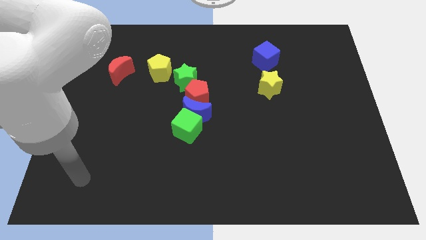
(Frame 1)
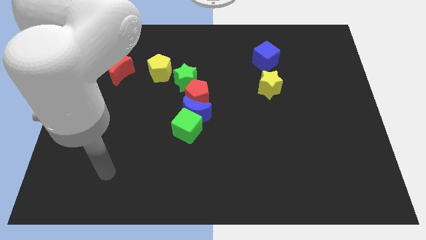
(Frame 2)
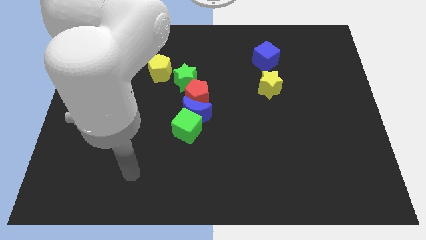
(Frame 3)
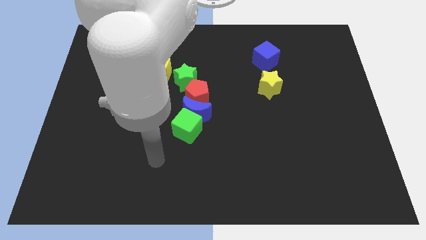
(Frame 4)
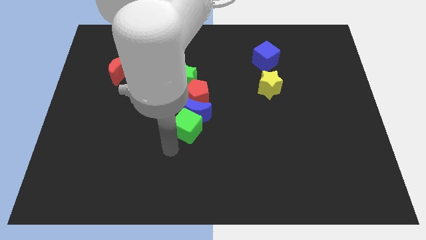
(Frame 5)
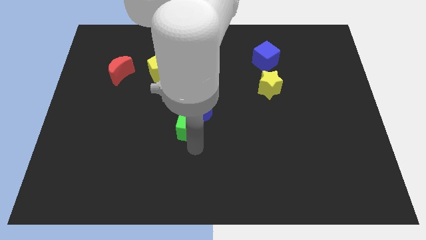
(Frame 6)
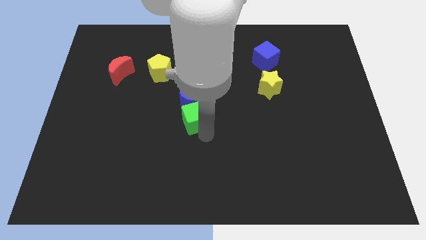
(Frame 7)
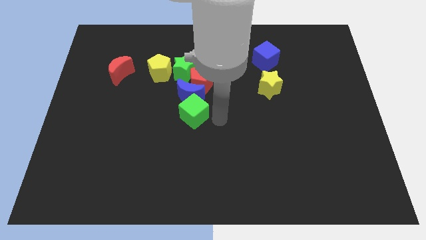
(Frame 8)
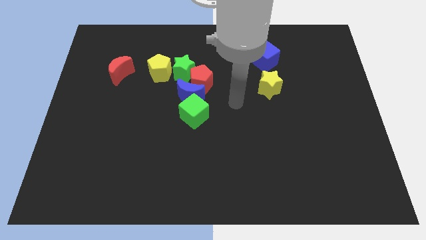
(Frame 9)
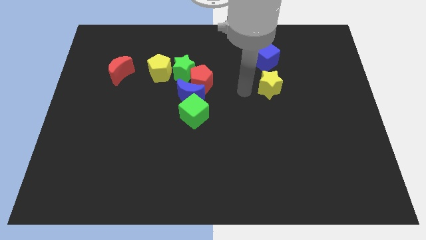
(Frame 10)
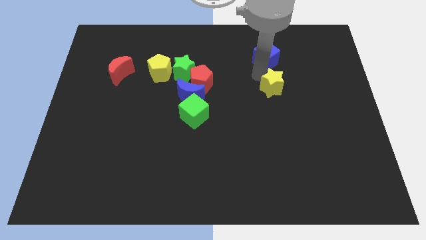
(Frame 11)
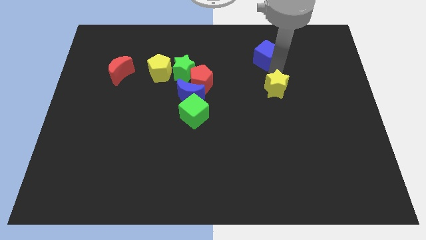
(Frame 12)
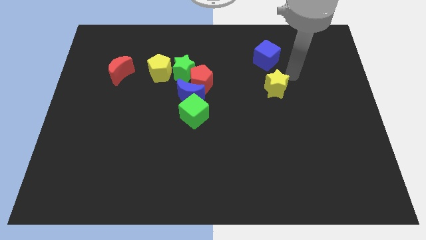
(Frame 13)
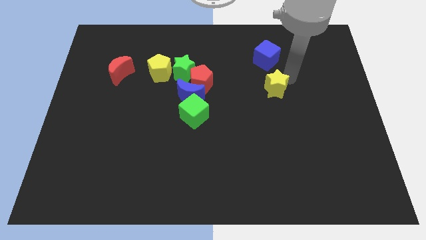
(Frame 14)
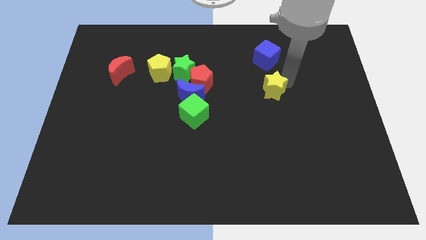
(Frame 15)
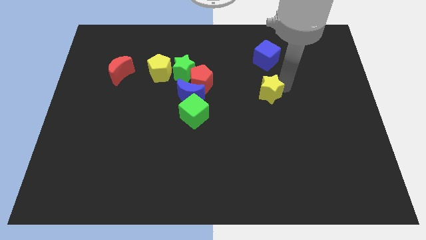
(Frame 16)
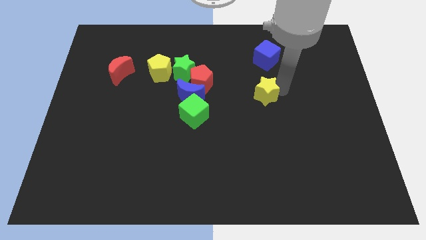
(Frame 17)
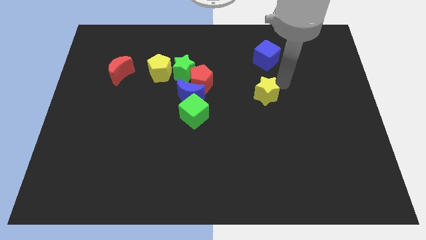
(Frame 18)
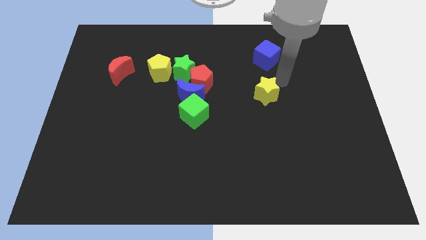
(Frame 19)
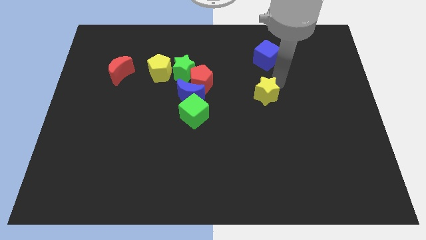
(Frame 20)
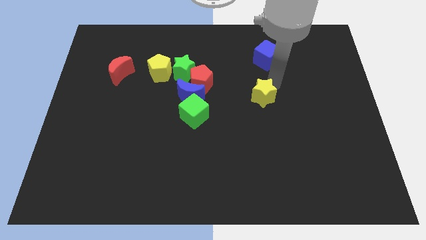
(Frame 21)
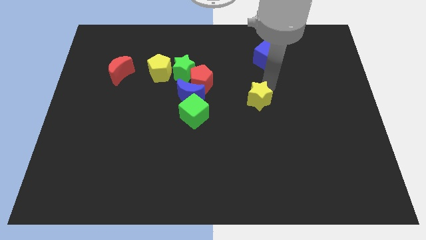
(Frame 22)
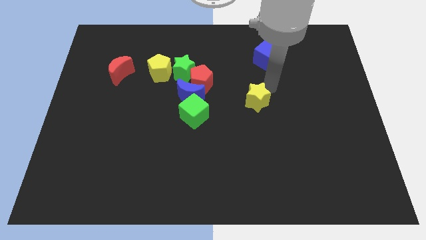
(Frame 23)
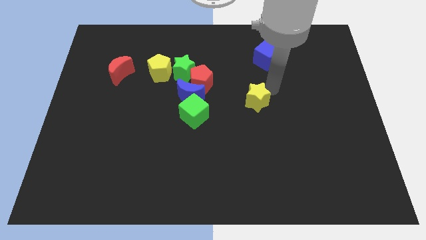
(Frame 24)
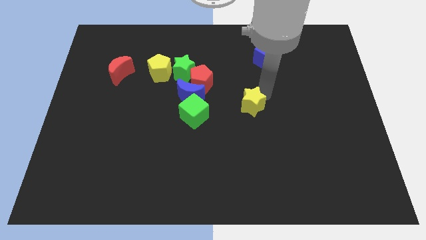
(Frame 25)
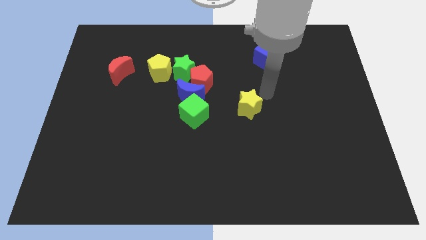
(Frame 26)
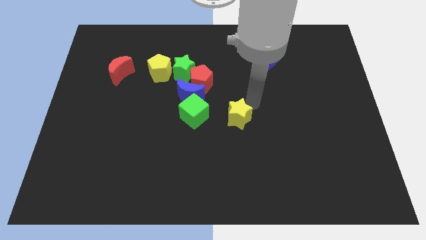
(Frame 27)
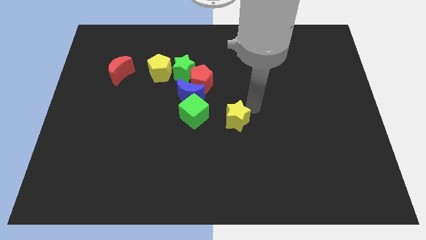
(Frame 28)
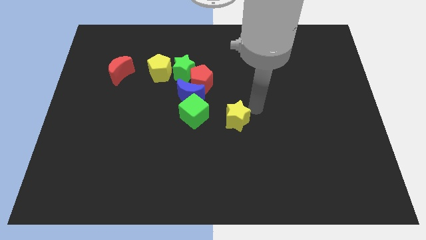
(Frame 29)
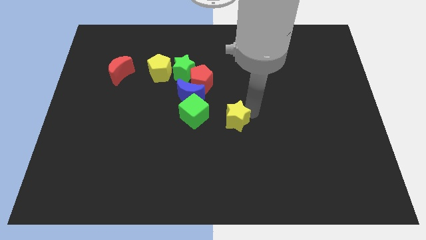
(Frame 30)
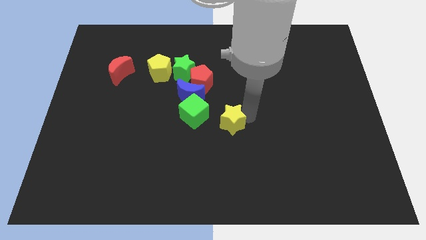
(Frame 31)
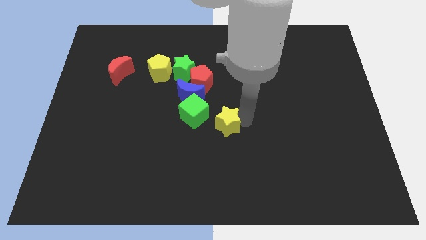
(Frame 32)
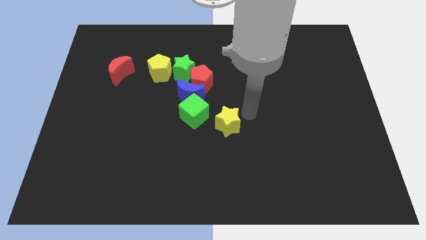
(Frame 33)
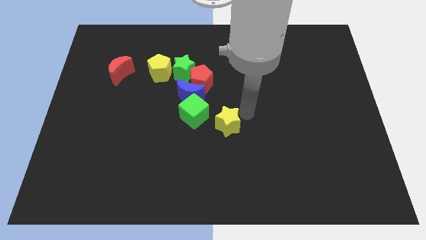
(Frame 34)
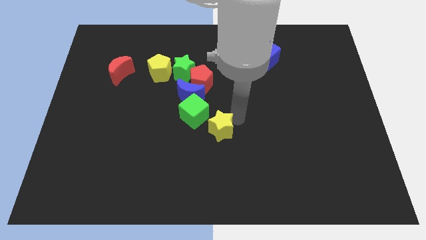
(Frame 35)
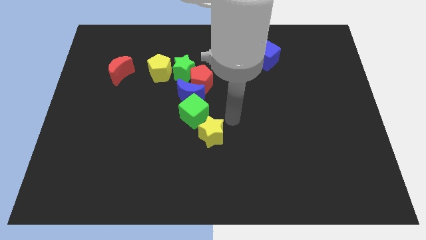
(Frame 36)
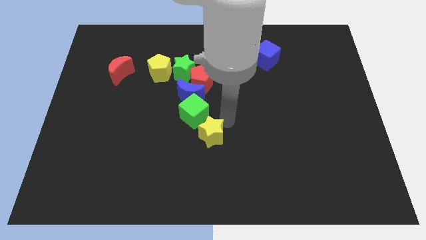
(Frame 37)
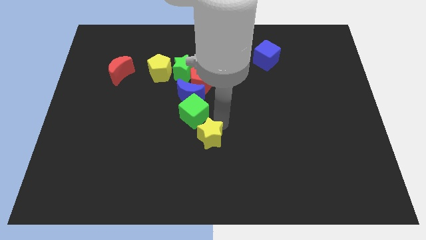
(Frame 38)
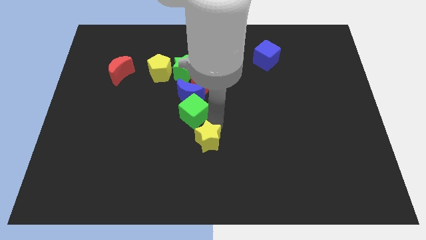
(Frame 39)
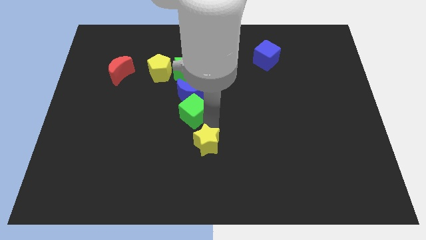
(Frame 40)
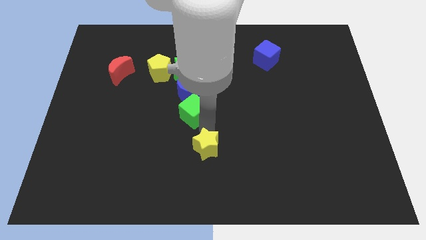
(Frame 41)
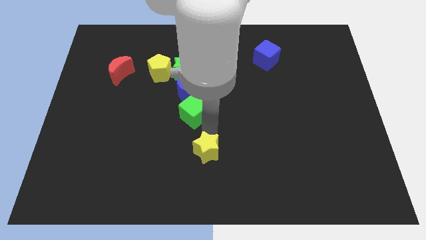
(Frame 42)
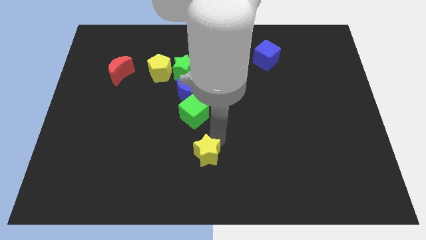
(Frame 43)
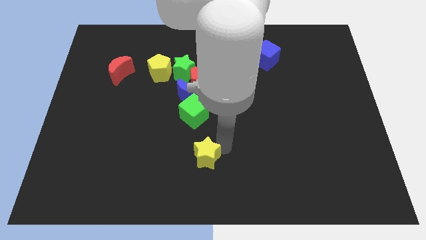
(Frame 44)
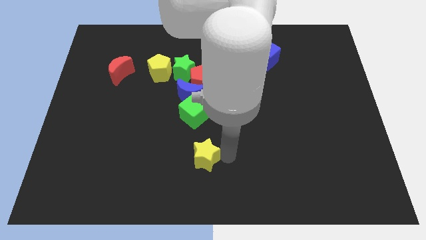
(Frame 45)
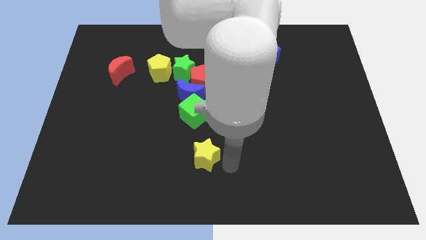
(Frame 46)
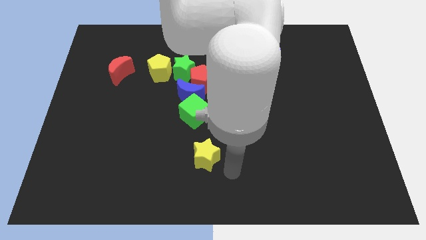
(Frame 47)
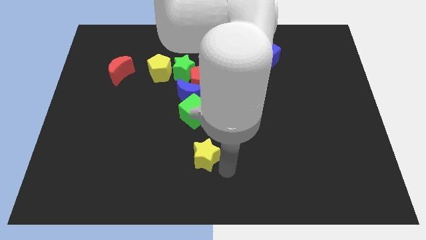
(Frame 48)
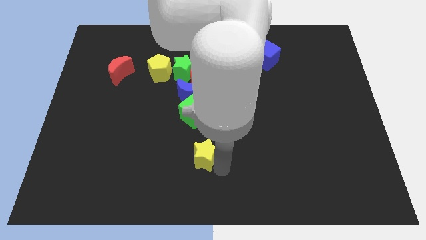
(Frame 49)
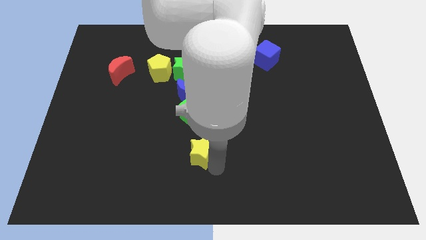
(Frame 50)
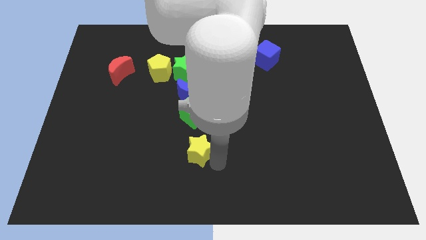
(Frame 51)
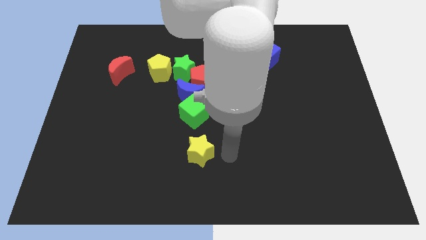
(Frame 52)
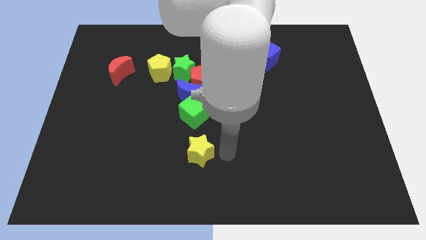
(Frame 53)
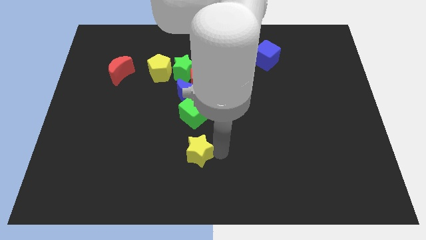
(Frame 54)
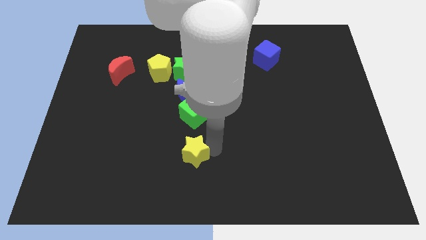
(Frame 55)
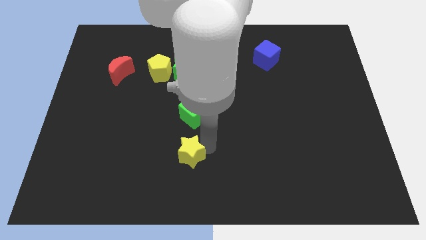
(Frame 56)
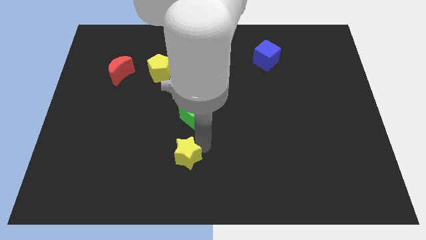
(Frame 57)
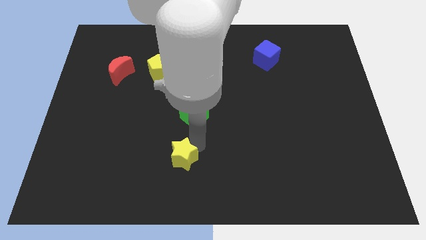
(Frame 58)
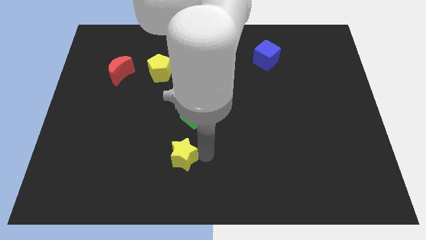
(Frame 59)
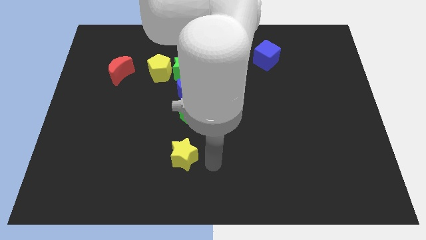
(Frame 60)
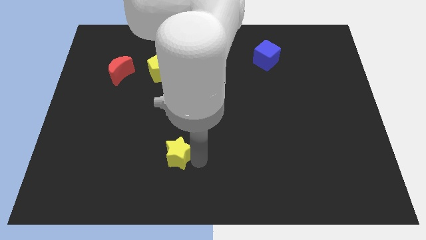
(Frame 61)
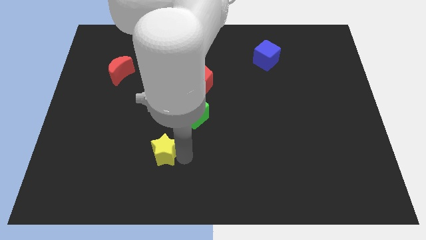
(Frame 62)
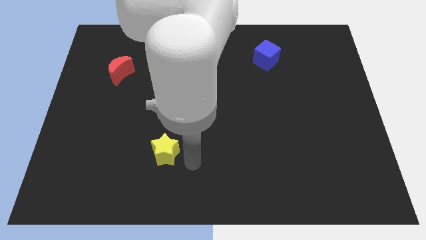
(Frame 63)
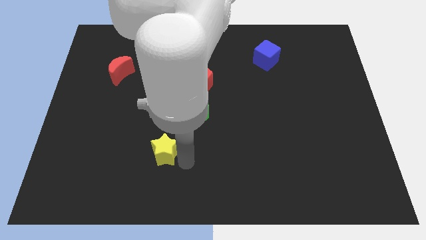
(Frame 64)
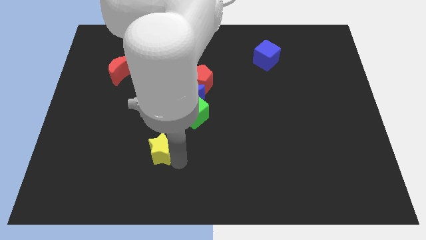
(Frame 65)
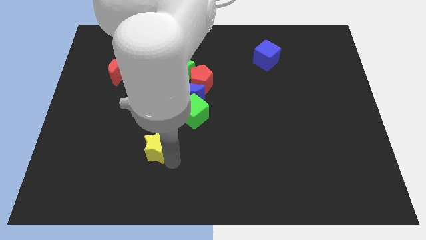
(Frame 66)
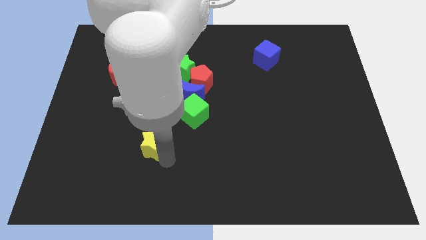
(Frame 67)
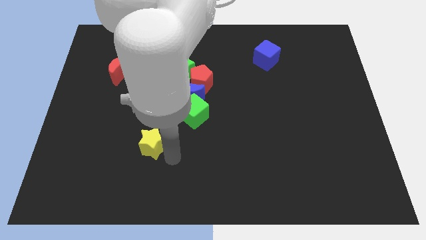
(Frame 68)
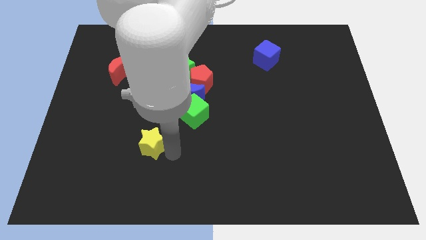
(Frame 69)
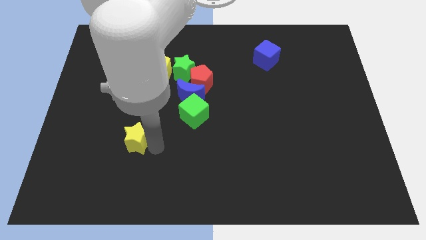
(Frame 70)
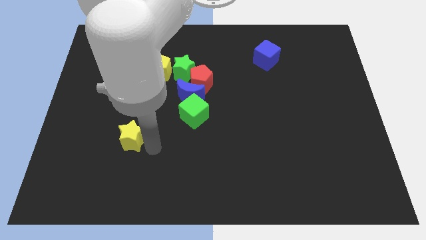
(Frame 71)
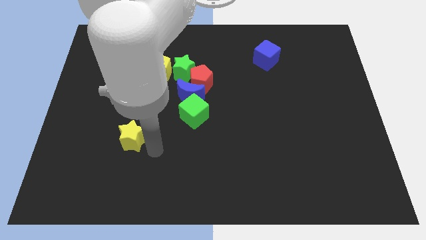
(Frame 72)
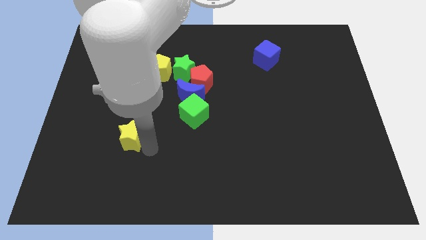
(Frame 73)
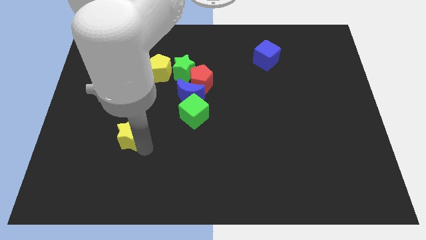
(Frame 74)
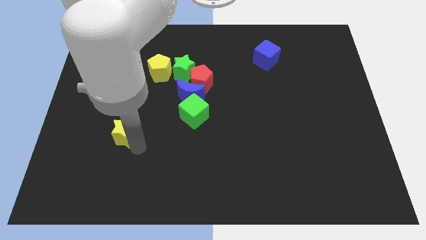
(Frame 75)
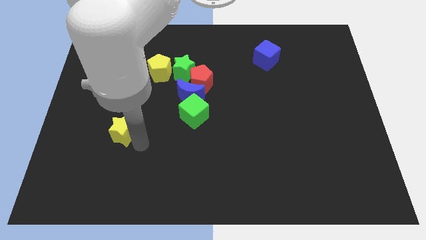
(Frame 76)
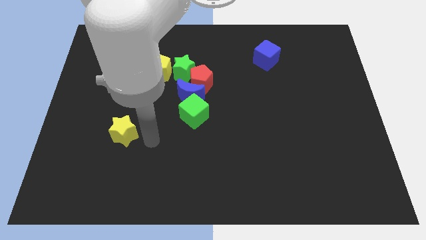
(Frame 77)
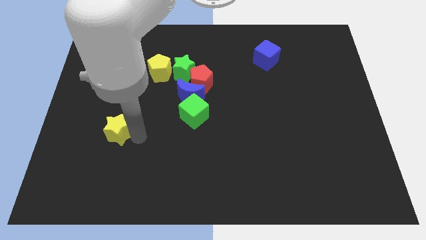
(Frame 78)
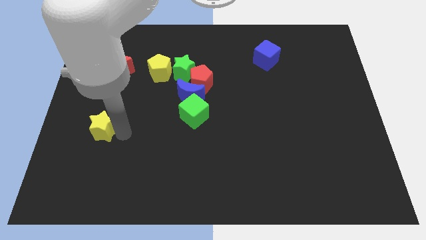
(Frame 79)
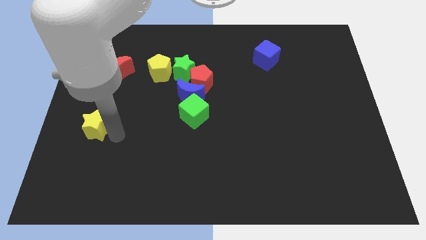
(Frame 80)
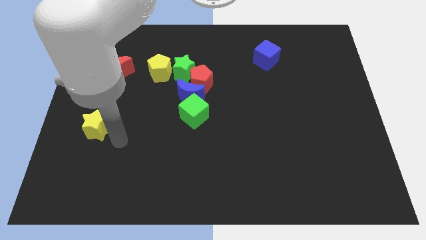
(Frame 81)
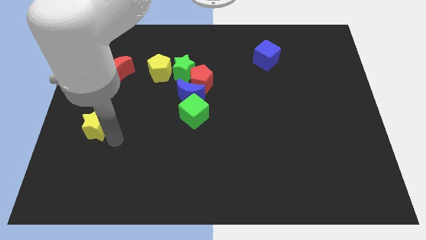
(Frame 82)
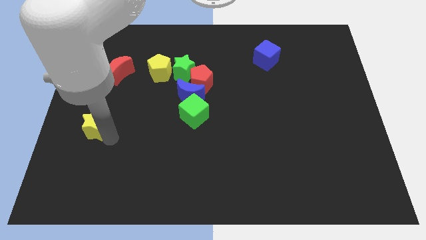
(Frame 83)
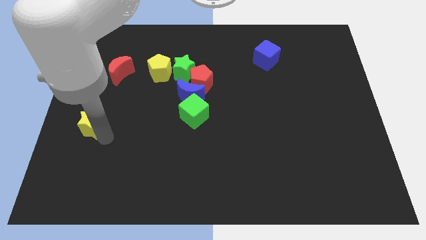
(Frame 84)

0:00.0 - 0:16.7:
slide the yellow star to the left side of the board
